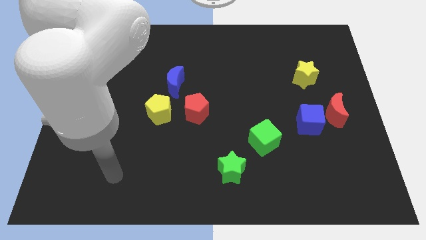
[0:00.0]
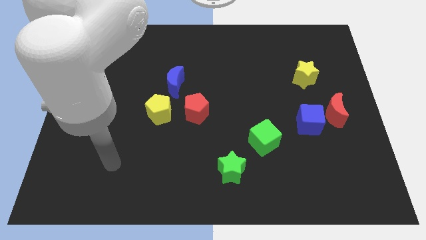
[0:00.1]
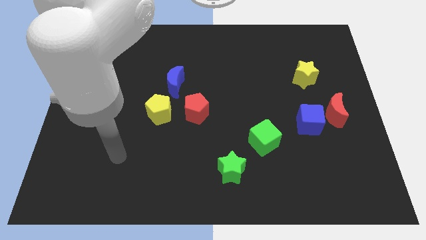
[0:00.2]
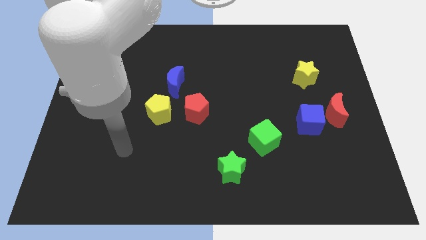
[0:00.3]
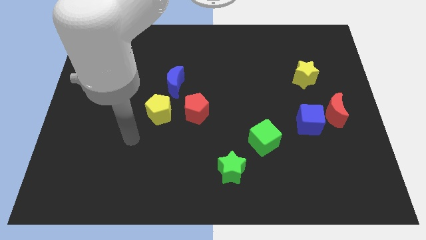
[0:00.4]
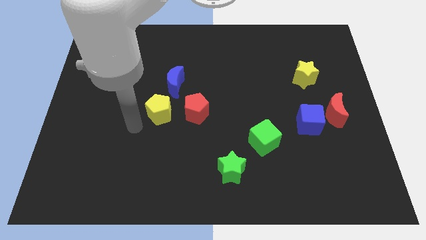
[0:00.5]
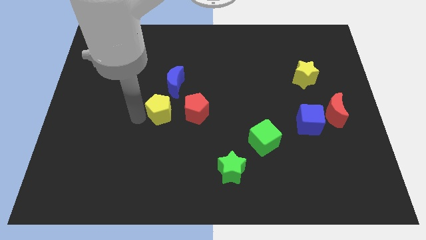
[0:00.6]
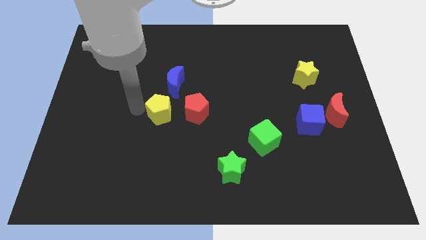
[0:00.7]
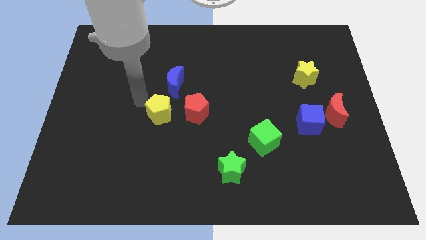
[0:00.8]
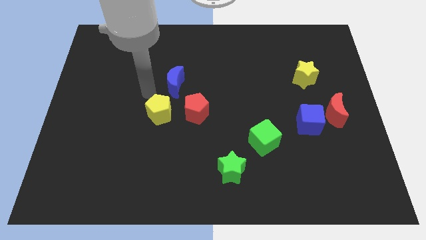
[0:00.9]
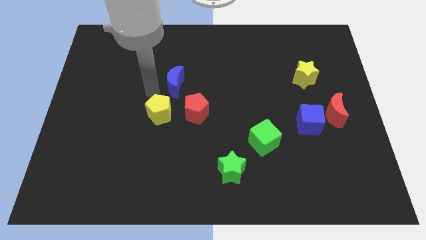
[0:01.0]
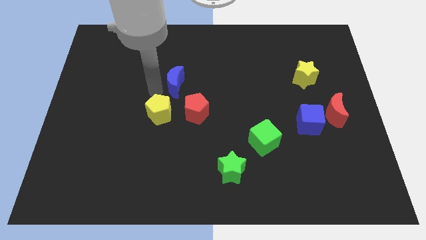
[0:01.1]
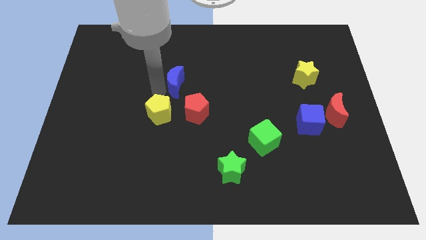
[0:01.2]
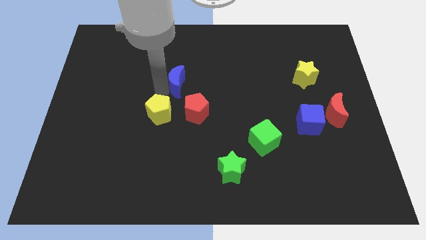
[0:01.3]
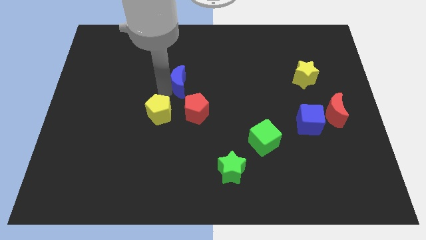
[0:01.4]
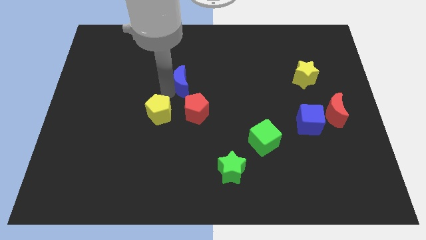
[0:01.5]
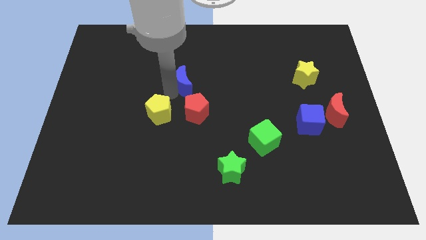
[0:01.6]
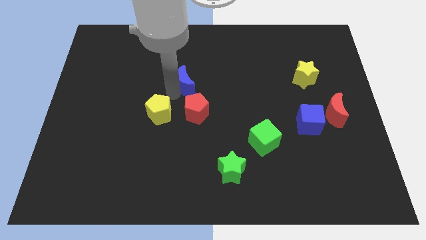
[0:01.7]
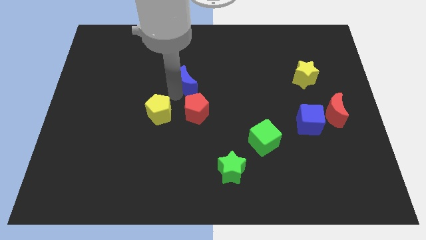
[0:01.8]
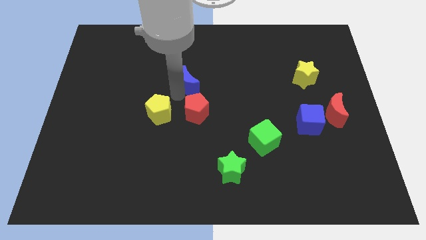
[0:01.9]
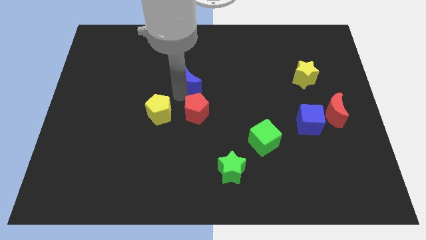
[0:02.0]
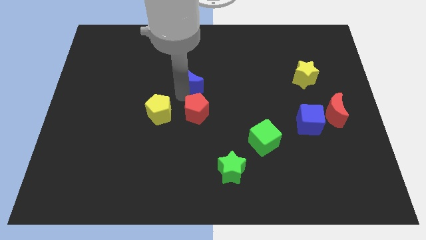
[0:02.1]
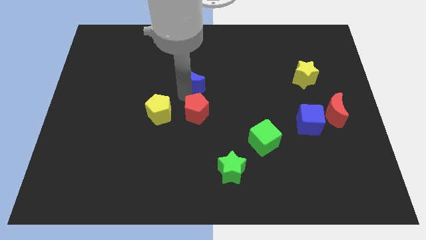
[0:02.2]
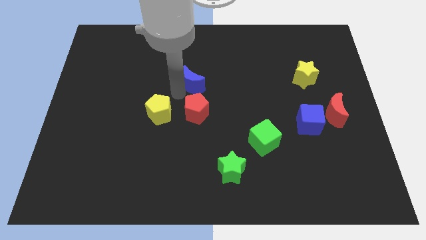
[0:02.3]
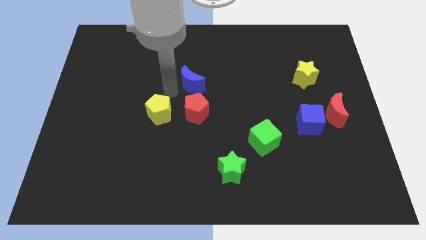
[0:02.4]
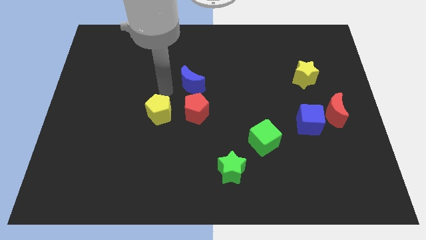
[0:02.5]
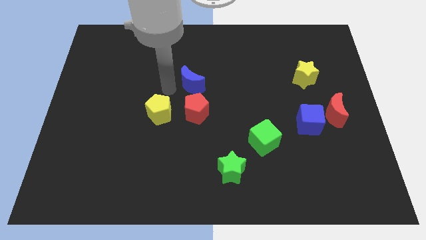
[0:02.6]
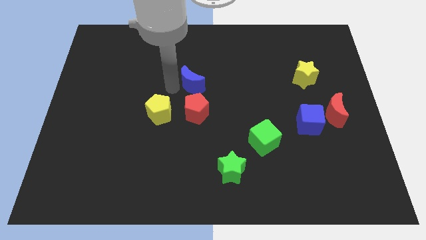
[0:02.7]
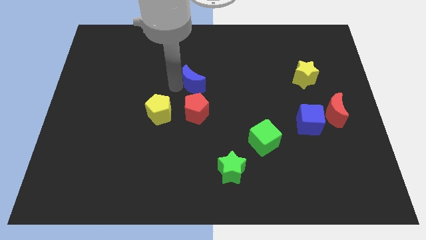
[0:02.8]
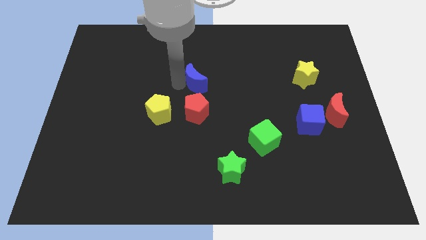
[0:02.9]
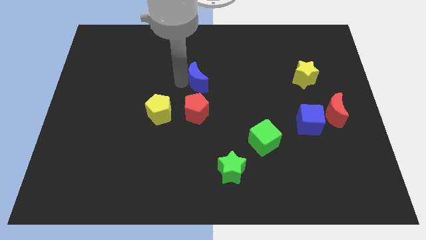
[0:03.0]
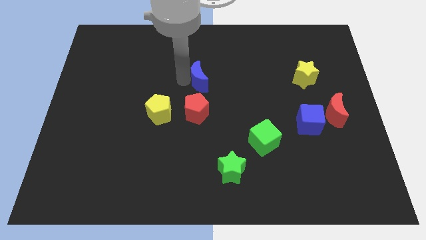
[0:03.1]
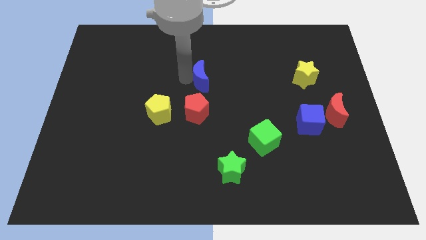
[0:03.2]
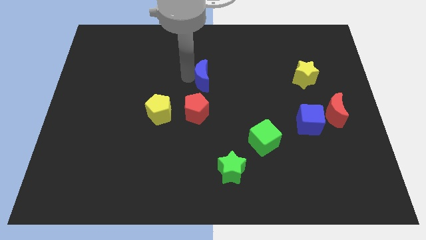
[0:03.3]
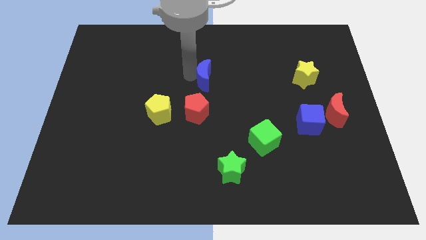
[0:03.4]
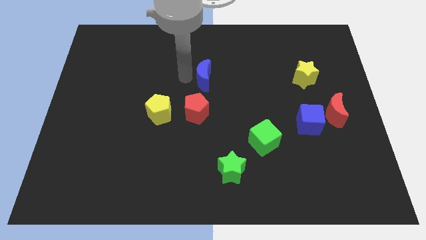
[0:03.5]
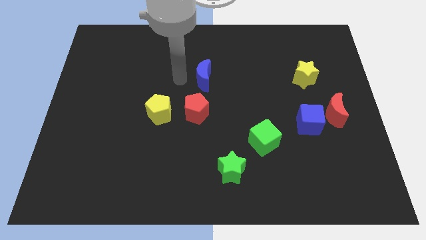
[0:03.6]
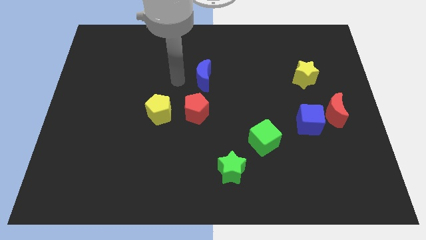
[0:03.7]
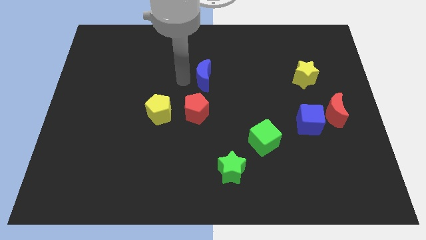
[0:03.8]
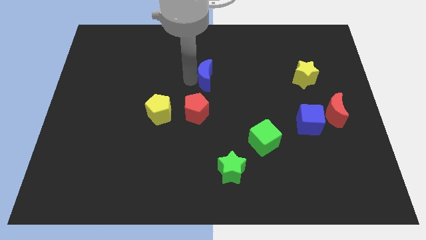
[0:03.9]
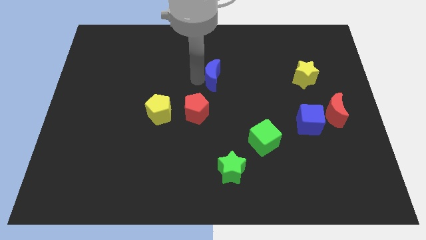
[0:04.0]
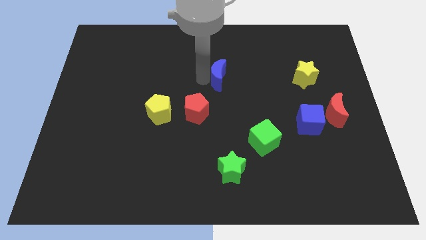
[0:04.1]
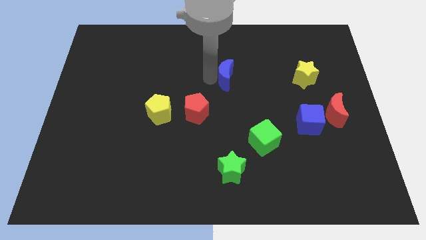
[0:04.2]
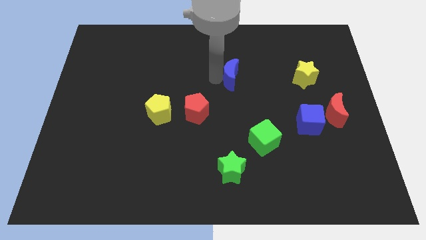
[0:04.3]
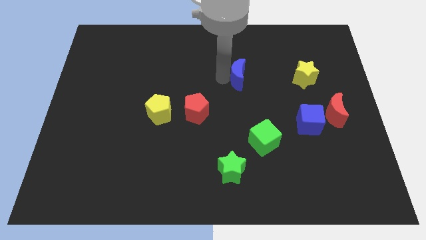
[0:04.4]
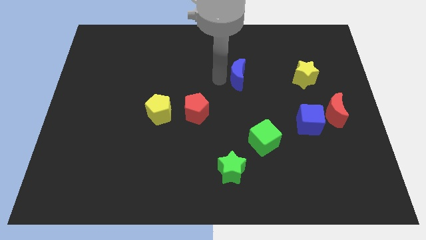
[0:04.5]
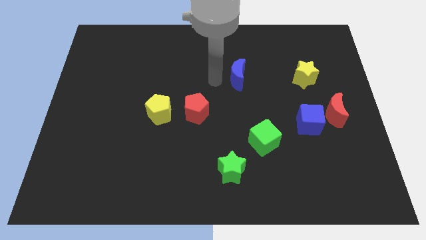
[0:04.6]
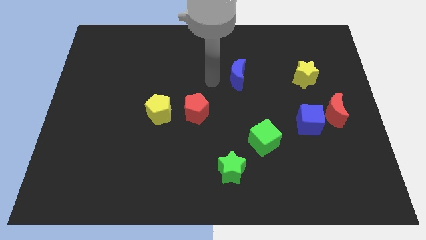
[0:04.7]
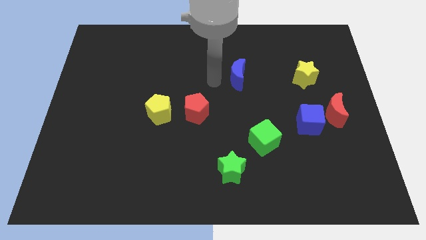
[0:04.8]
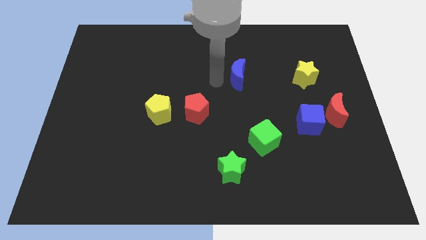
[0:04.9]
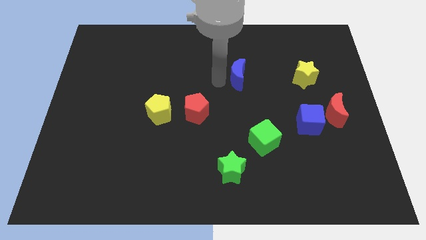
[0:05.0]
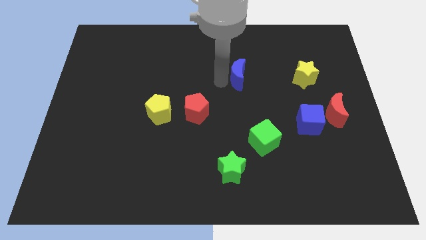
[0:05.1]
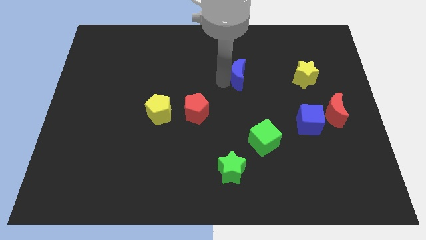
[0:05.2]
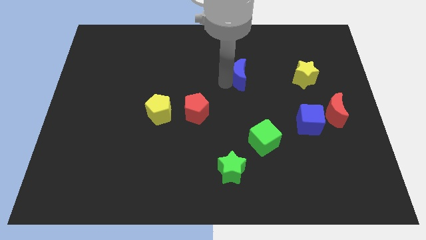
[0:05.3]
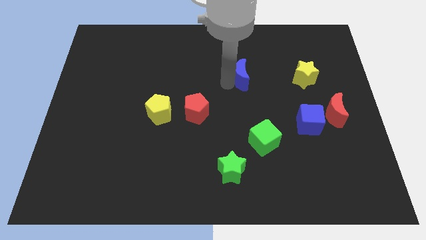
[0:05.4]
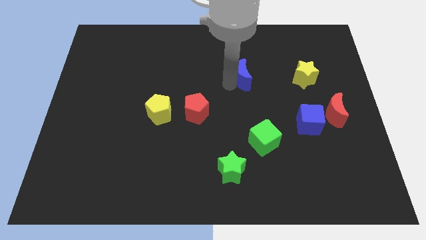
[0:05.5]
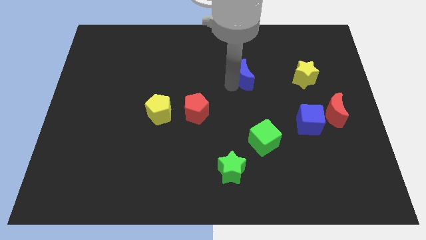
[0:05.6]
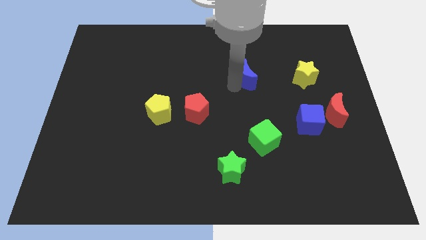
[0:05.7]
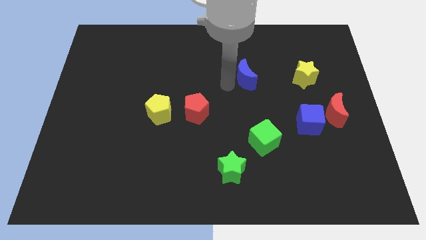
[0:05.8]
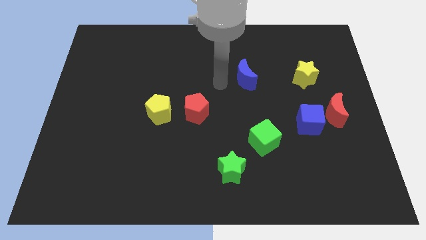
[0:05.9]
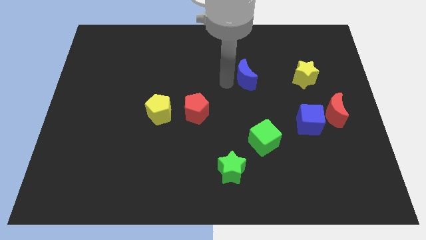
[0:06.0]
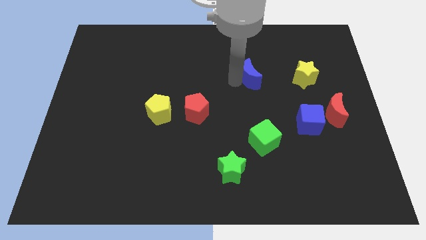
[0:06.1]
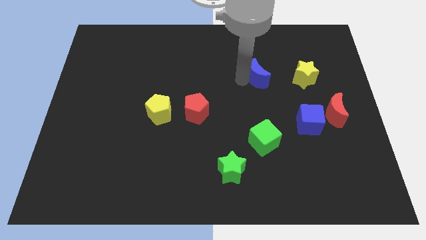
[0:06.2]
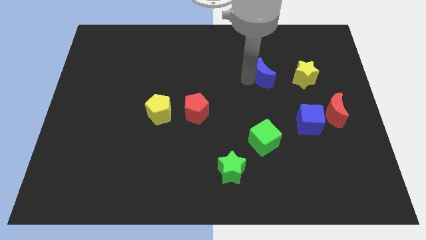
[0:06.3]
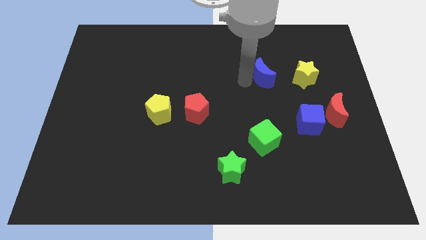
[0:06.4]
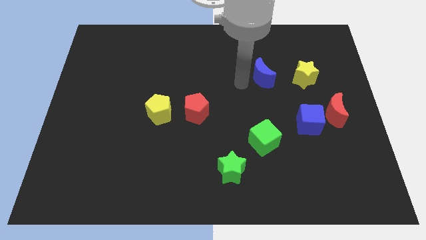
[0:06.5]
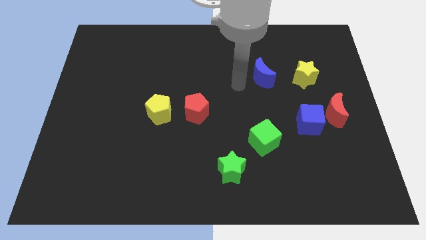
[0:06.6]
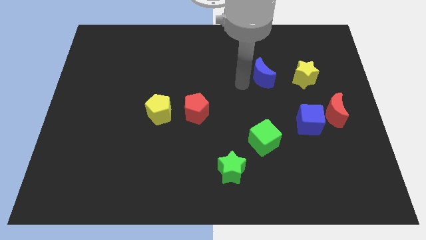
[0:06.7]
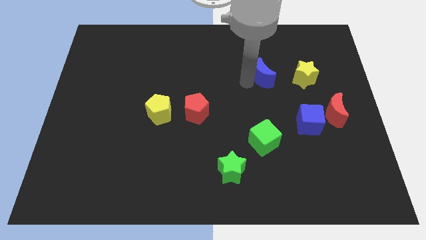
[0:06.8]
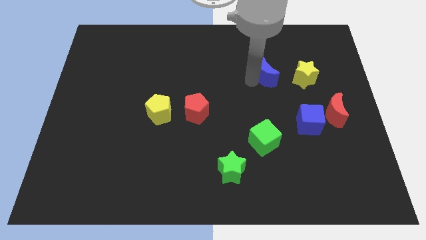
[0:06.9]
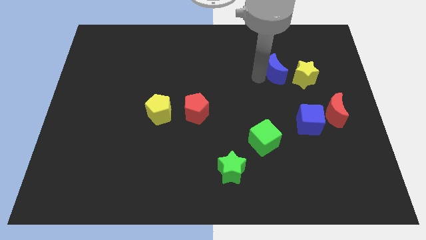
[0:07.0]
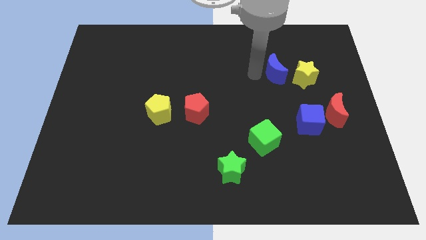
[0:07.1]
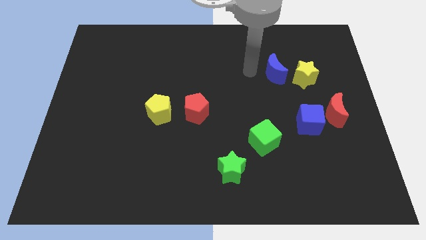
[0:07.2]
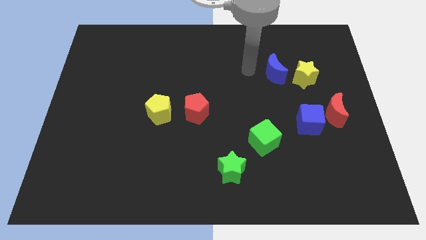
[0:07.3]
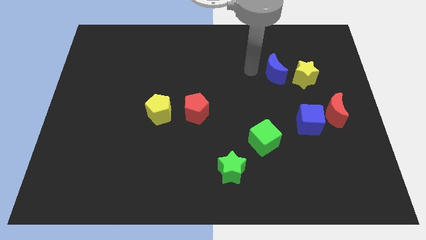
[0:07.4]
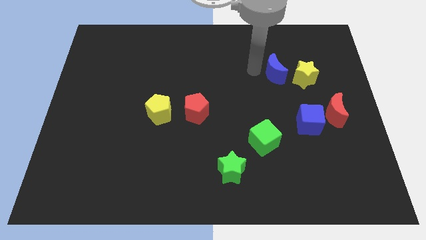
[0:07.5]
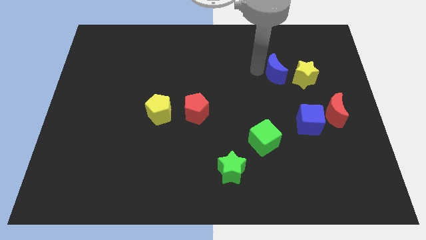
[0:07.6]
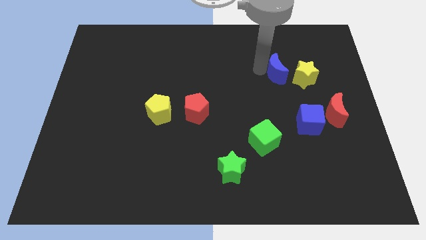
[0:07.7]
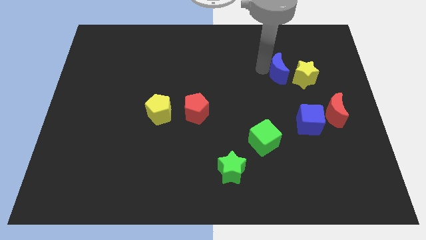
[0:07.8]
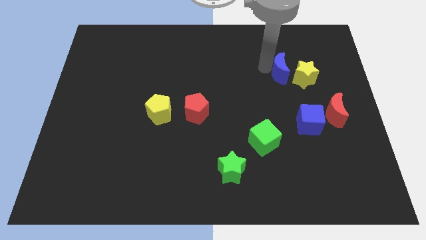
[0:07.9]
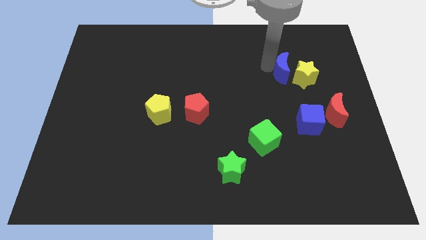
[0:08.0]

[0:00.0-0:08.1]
push the blue moon towards the yellow star
